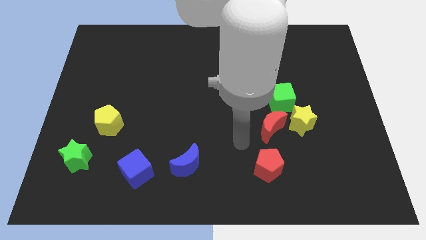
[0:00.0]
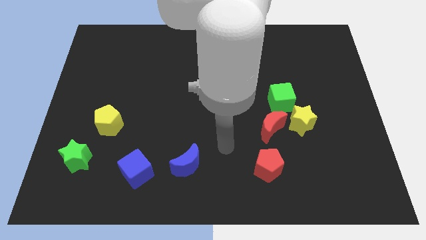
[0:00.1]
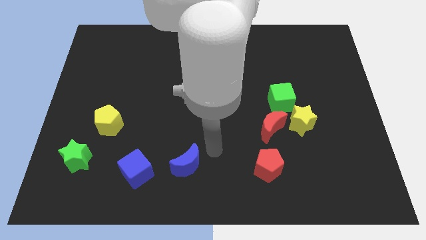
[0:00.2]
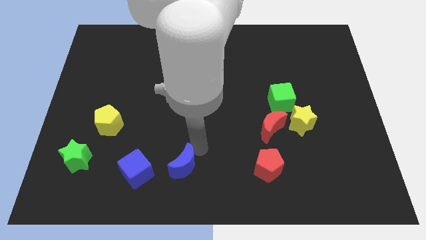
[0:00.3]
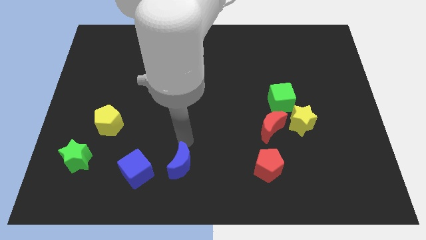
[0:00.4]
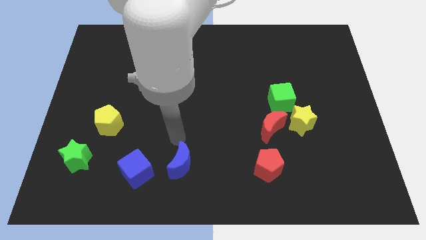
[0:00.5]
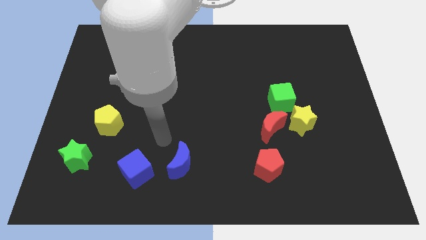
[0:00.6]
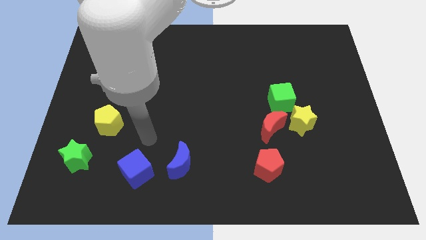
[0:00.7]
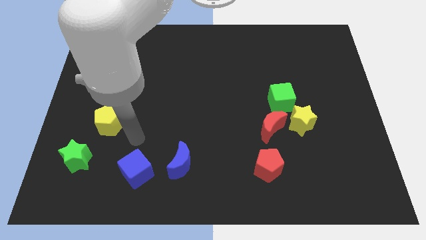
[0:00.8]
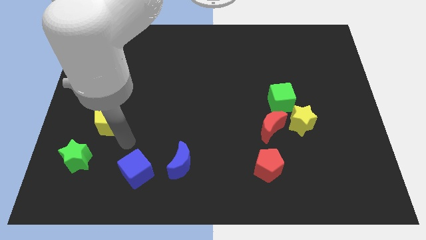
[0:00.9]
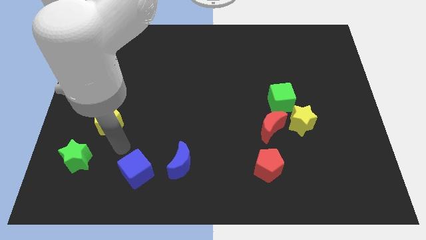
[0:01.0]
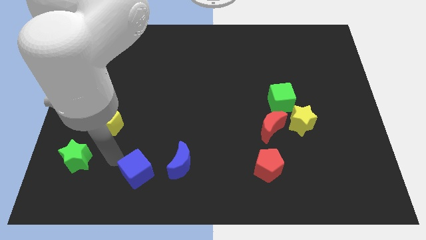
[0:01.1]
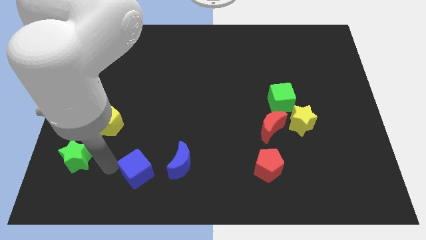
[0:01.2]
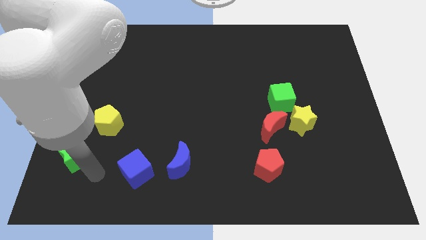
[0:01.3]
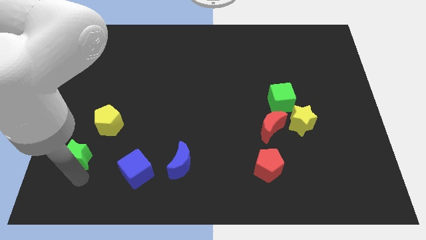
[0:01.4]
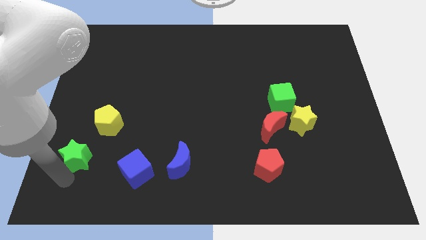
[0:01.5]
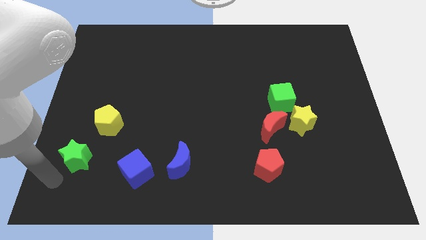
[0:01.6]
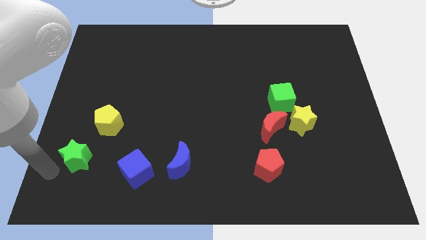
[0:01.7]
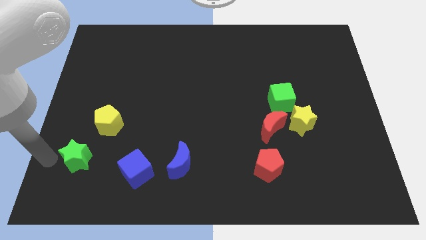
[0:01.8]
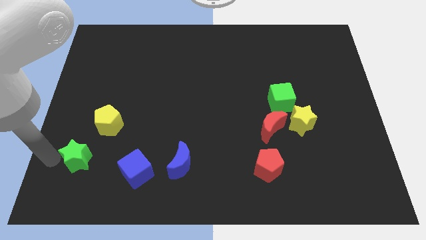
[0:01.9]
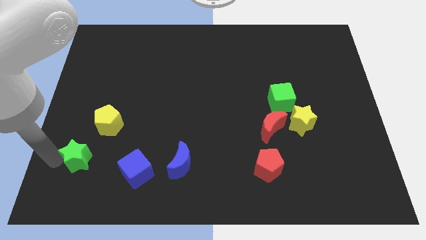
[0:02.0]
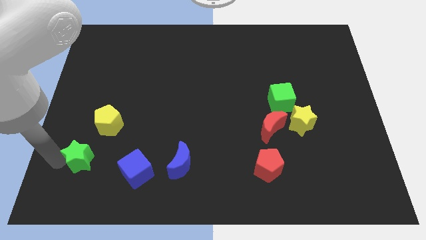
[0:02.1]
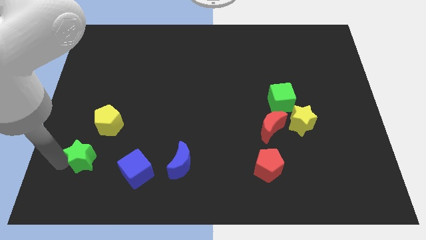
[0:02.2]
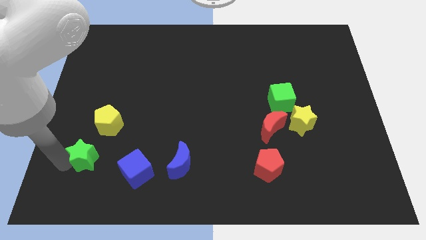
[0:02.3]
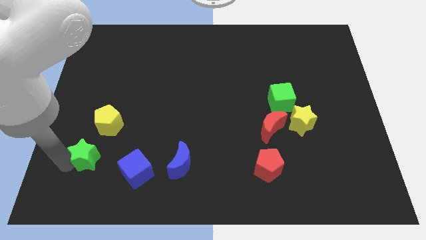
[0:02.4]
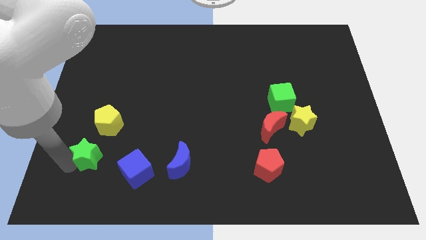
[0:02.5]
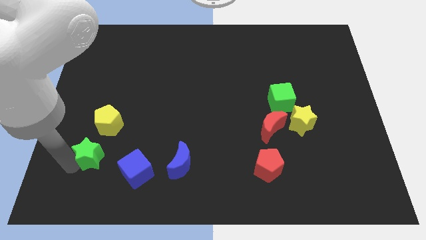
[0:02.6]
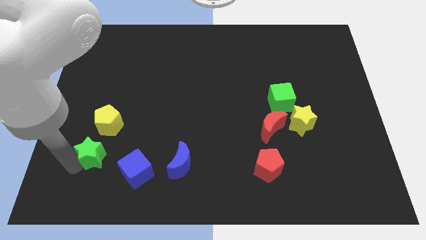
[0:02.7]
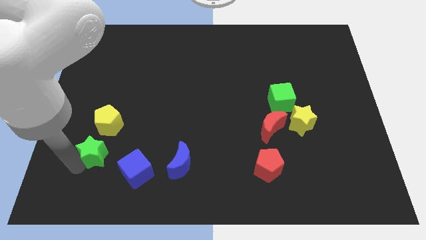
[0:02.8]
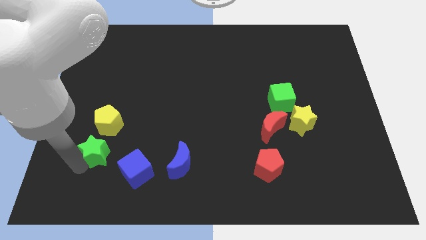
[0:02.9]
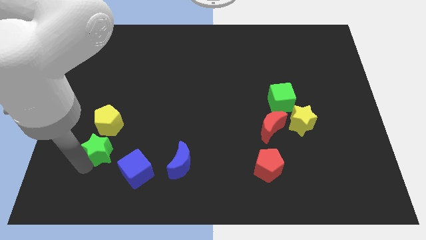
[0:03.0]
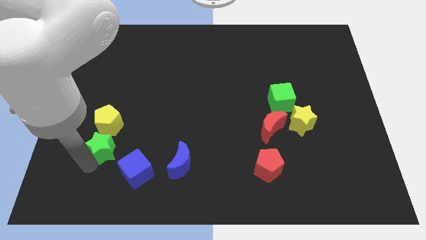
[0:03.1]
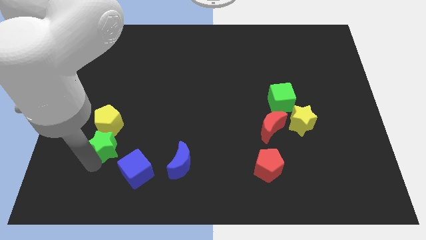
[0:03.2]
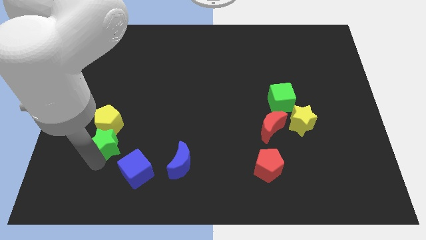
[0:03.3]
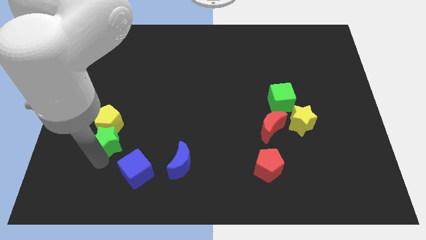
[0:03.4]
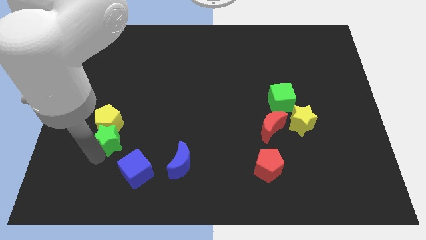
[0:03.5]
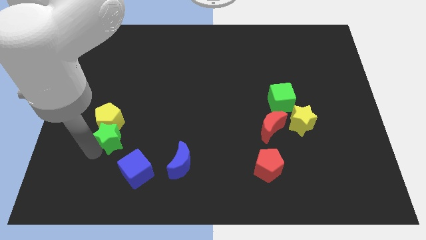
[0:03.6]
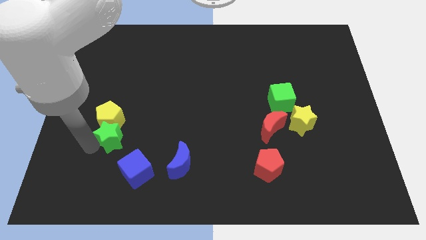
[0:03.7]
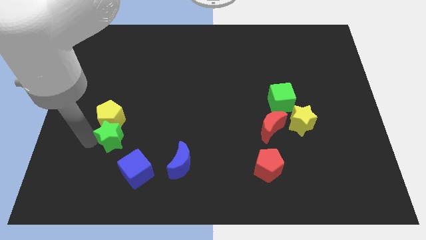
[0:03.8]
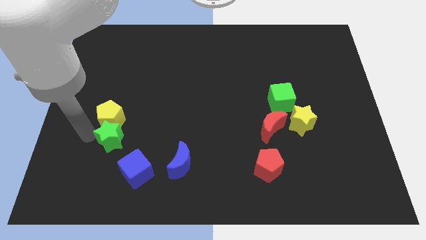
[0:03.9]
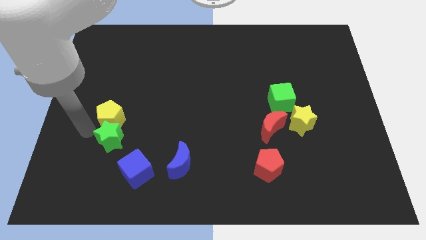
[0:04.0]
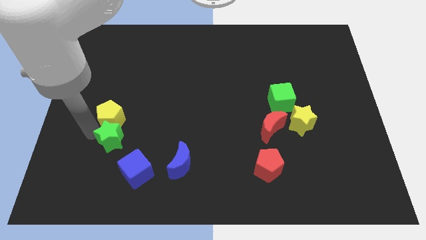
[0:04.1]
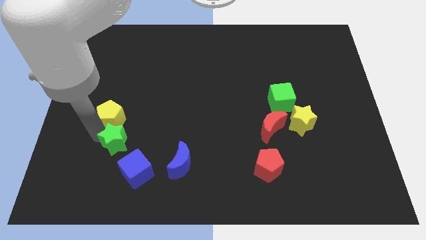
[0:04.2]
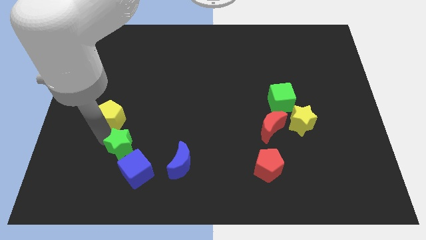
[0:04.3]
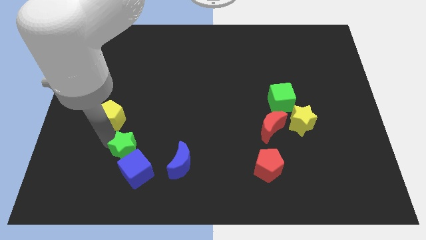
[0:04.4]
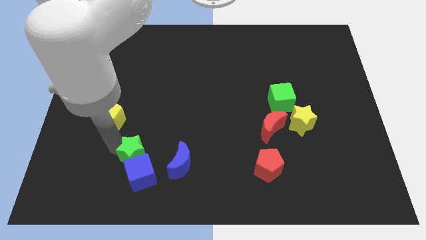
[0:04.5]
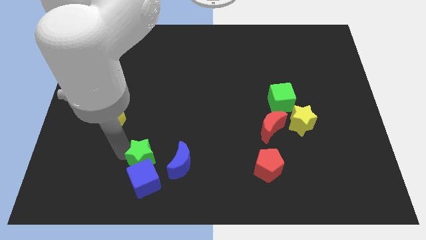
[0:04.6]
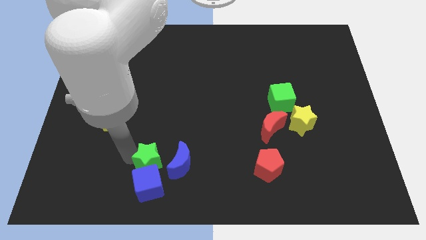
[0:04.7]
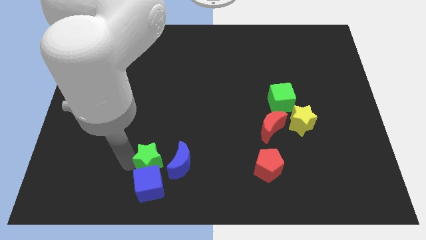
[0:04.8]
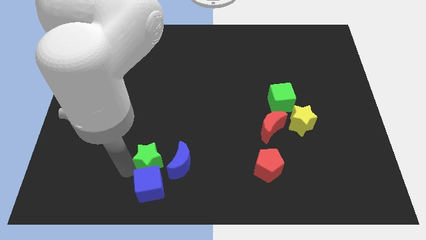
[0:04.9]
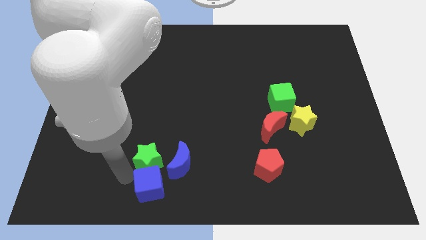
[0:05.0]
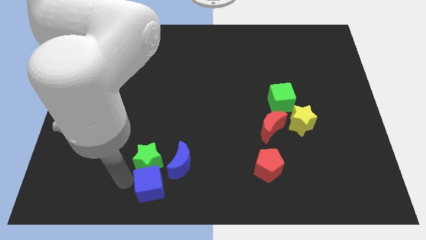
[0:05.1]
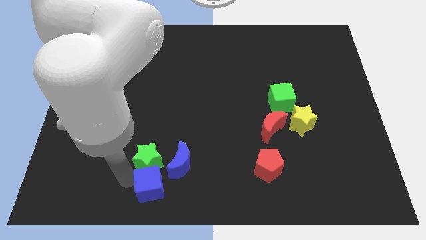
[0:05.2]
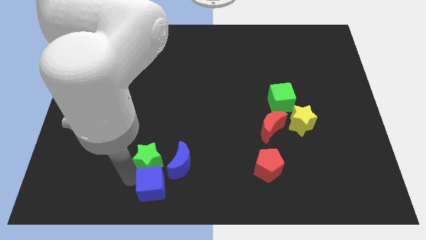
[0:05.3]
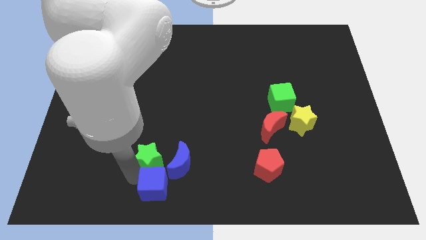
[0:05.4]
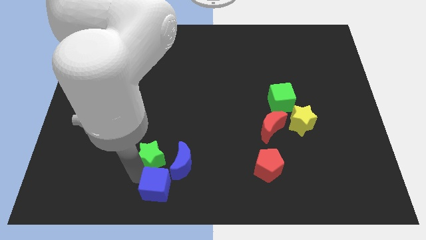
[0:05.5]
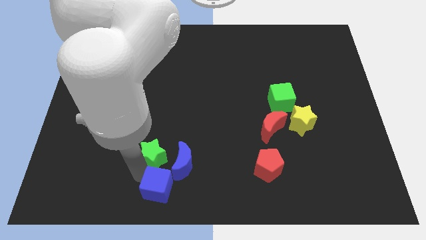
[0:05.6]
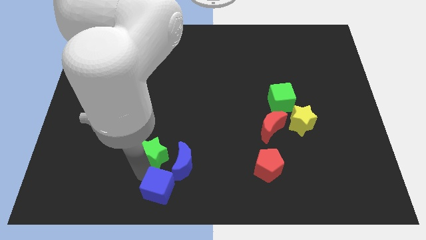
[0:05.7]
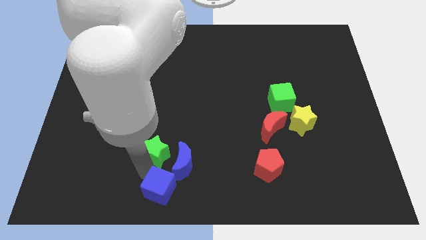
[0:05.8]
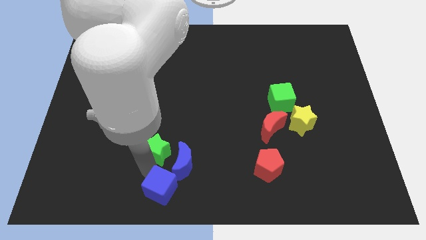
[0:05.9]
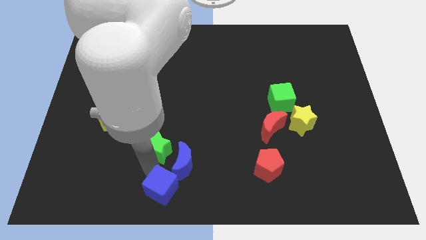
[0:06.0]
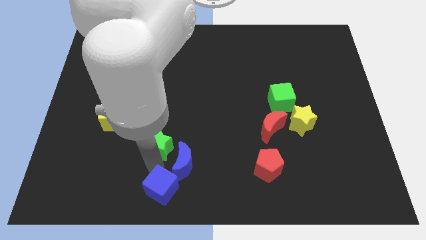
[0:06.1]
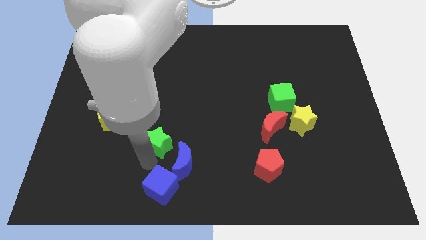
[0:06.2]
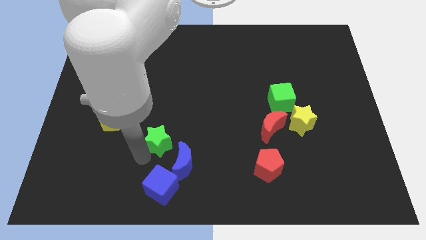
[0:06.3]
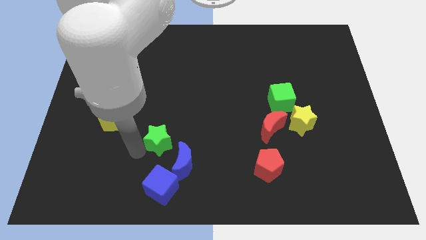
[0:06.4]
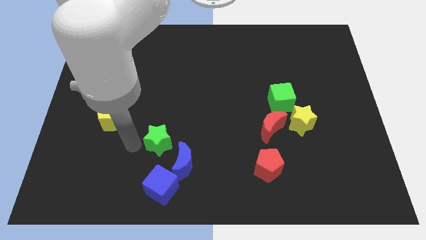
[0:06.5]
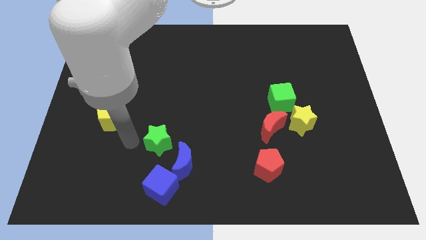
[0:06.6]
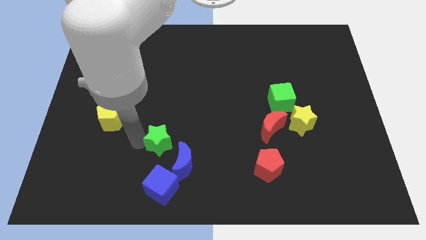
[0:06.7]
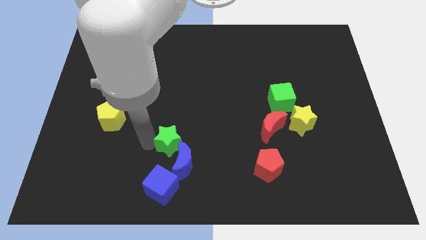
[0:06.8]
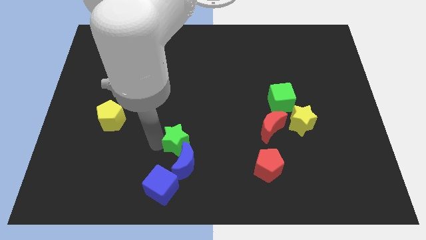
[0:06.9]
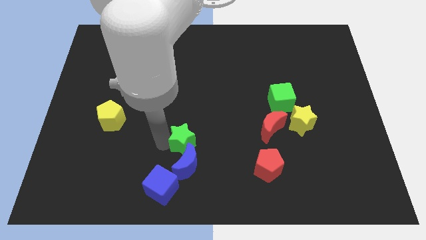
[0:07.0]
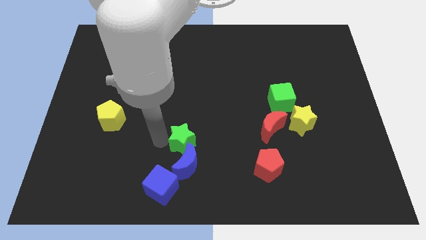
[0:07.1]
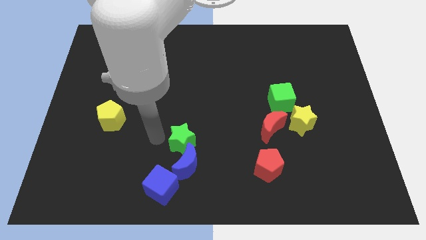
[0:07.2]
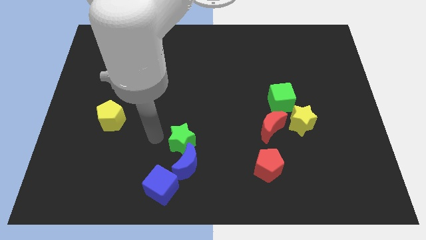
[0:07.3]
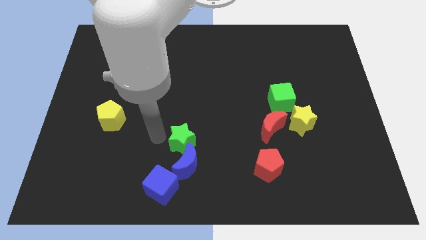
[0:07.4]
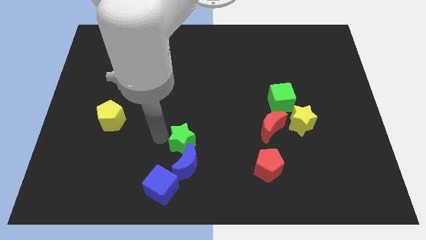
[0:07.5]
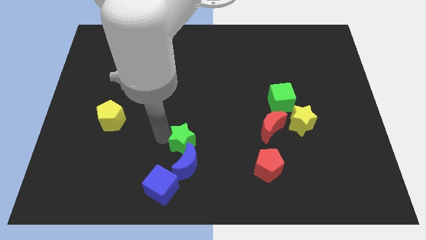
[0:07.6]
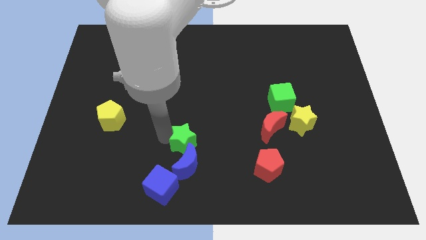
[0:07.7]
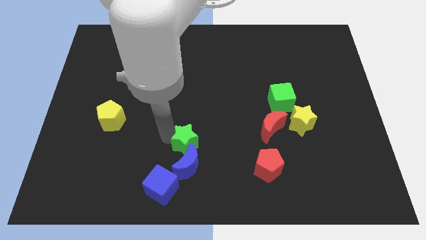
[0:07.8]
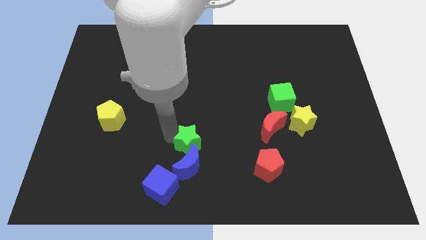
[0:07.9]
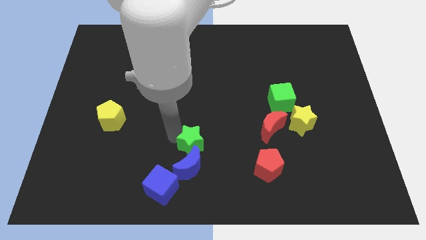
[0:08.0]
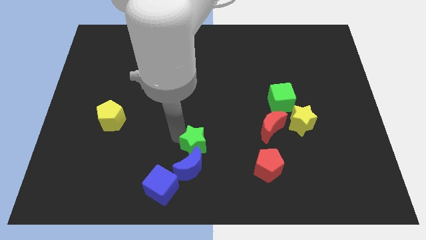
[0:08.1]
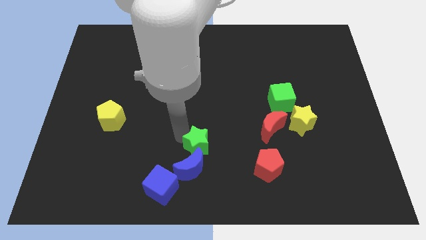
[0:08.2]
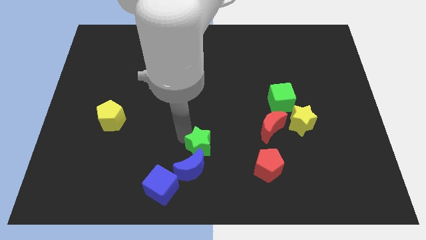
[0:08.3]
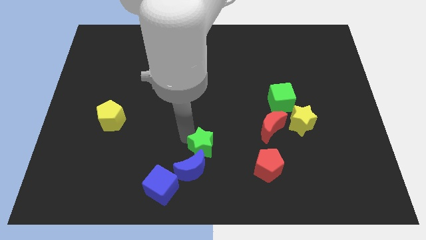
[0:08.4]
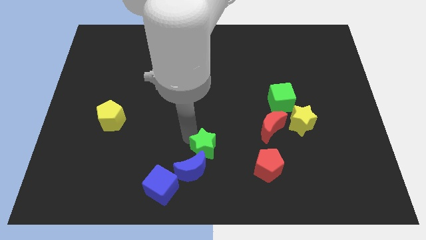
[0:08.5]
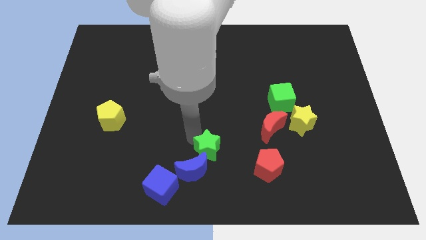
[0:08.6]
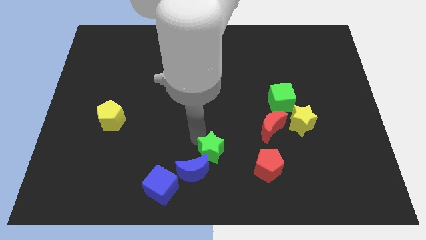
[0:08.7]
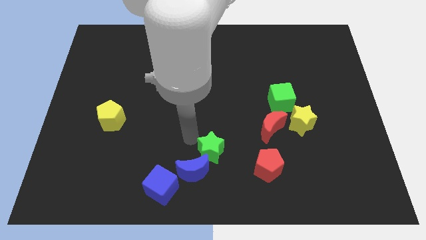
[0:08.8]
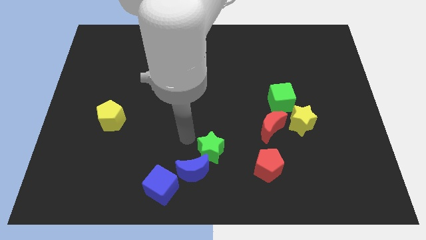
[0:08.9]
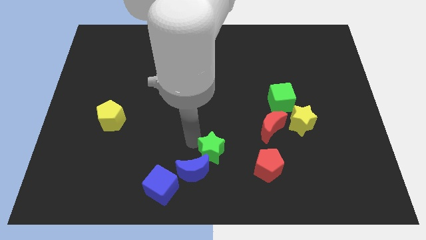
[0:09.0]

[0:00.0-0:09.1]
push the green star to the right side of the blue moon
